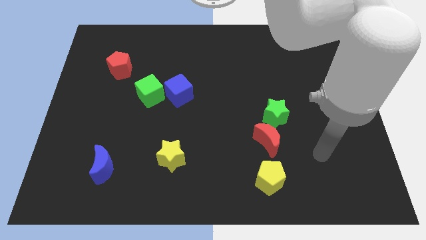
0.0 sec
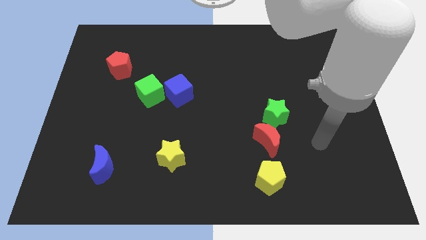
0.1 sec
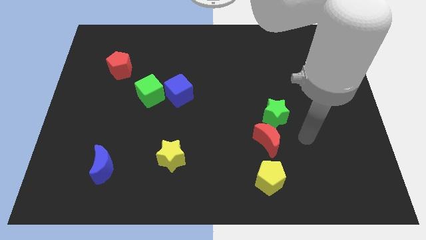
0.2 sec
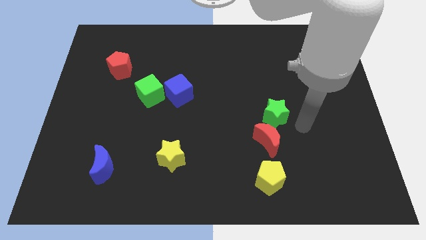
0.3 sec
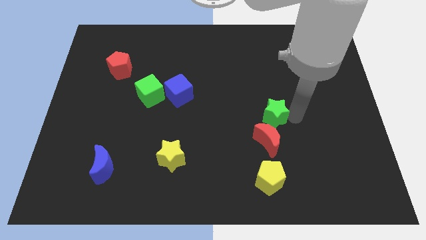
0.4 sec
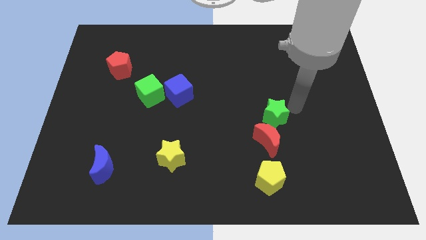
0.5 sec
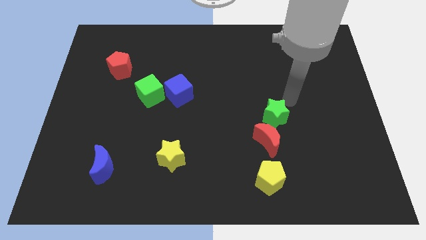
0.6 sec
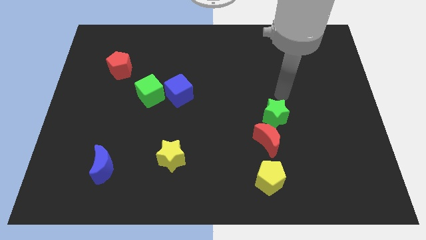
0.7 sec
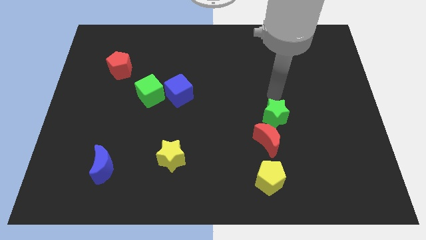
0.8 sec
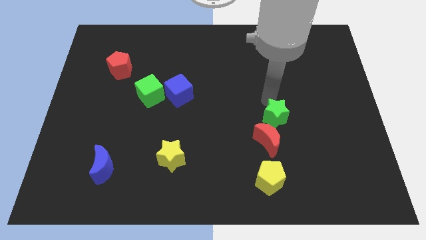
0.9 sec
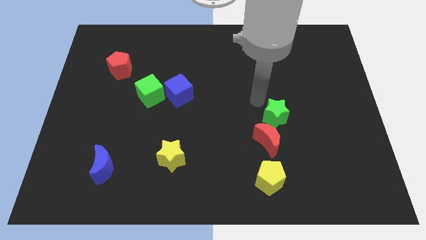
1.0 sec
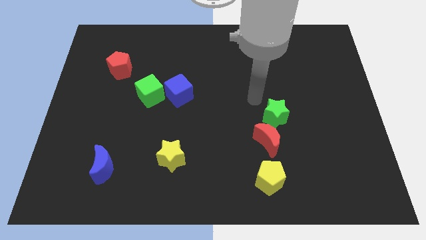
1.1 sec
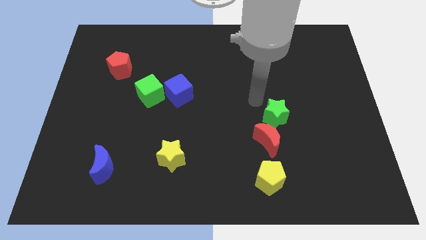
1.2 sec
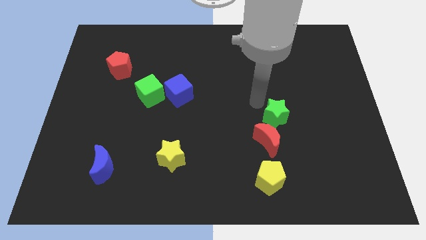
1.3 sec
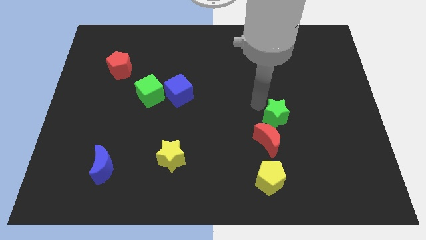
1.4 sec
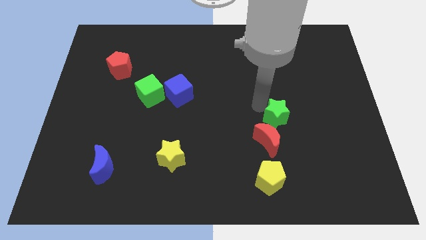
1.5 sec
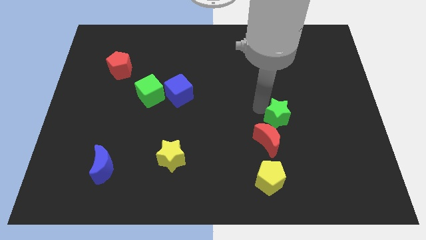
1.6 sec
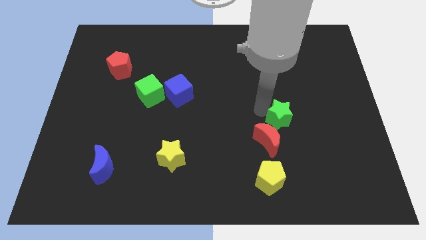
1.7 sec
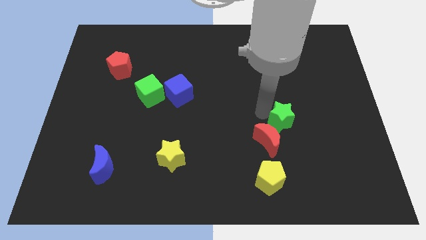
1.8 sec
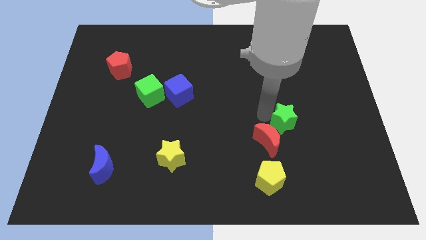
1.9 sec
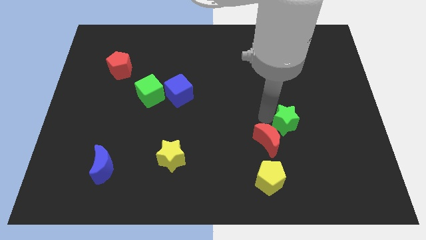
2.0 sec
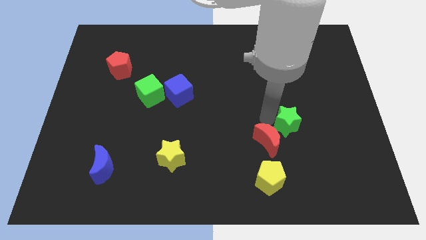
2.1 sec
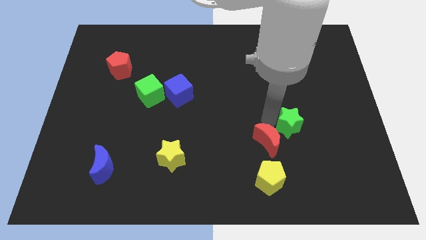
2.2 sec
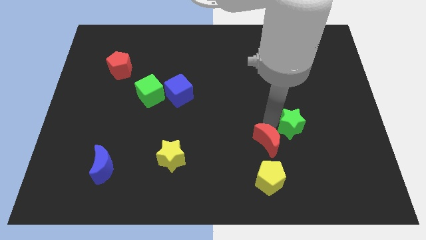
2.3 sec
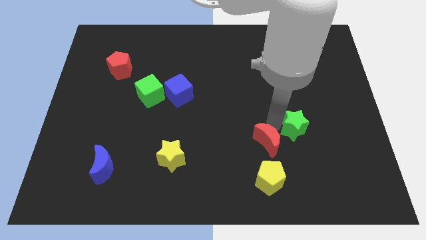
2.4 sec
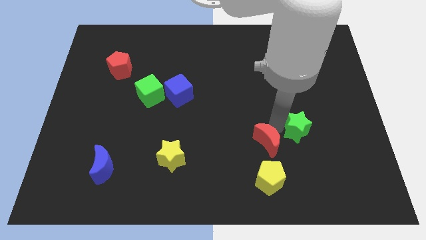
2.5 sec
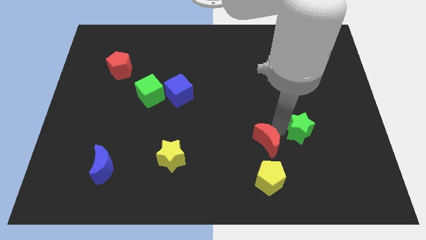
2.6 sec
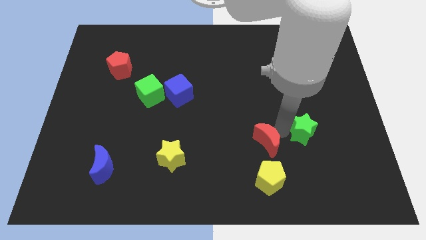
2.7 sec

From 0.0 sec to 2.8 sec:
slightly move the green star diagonally downwards and to the right

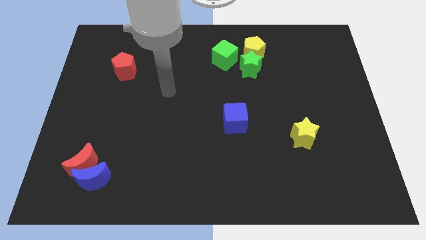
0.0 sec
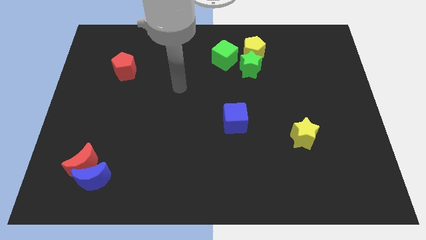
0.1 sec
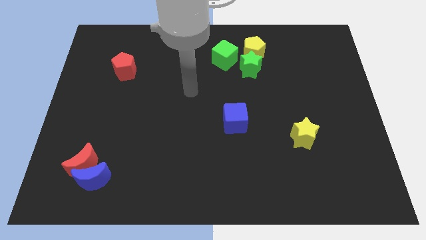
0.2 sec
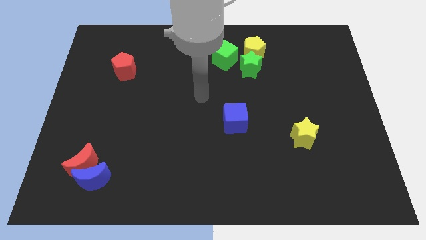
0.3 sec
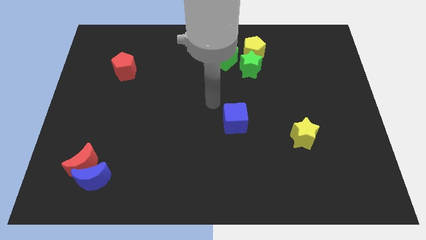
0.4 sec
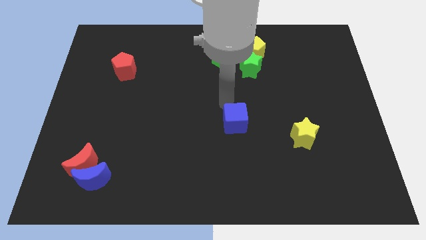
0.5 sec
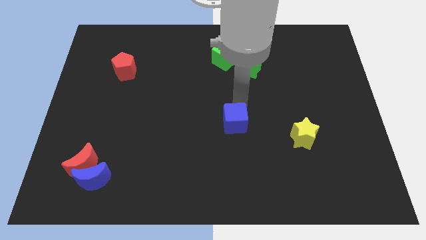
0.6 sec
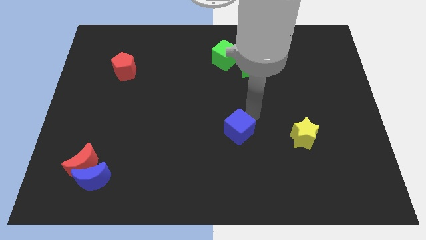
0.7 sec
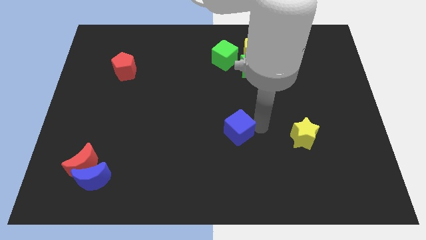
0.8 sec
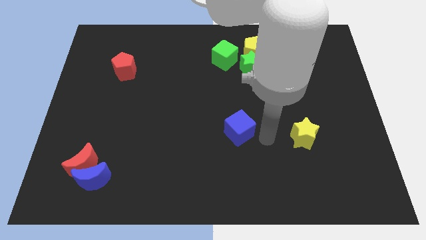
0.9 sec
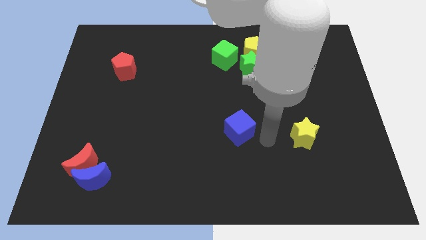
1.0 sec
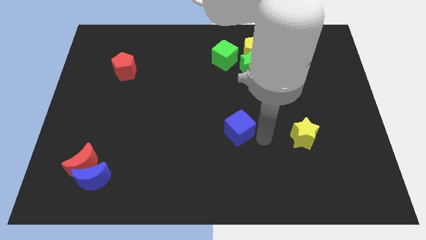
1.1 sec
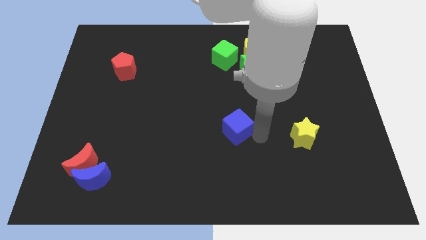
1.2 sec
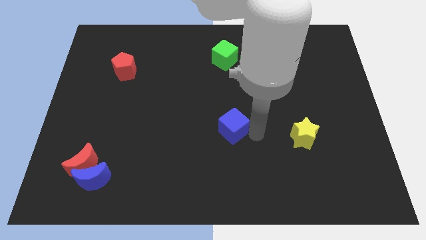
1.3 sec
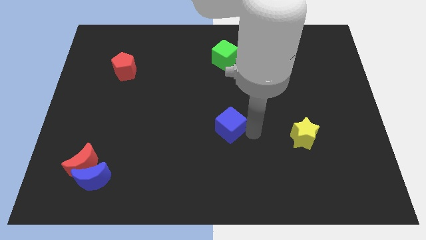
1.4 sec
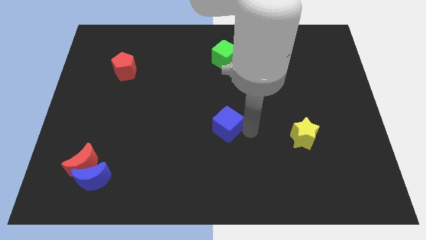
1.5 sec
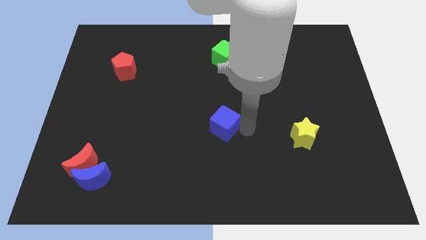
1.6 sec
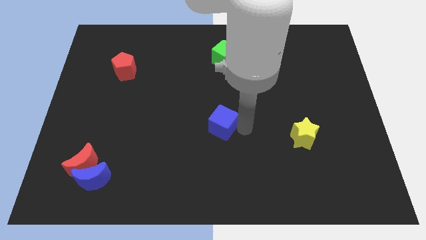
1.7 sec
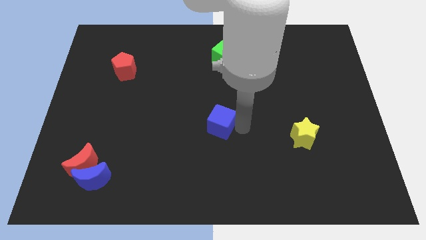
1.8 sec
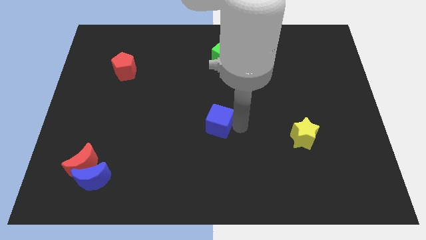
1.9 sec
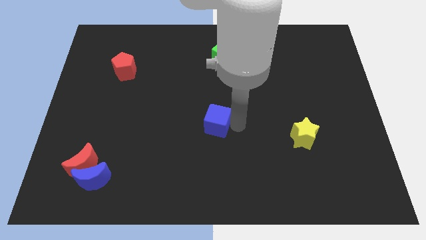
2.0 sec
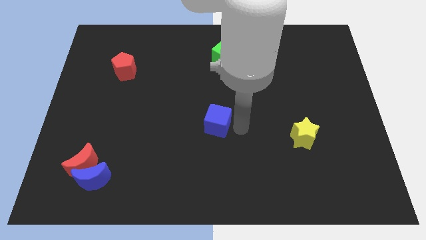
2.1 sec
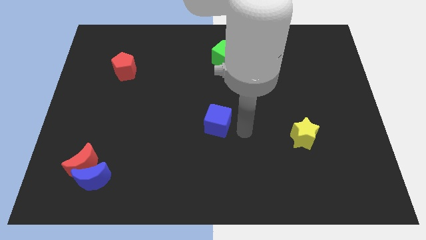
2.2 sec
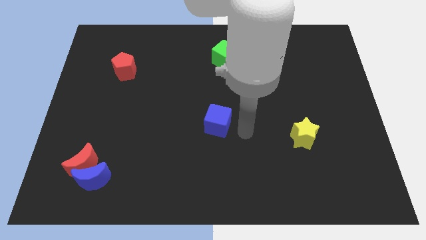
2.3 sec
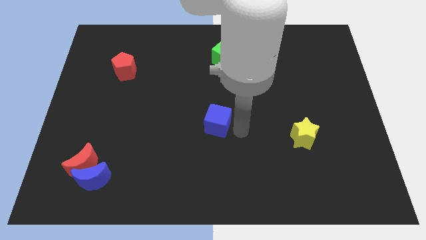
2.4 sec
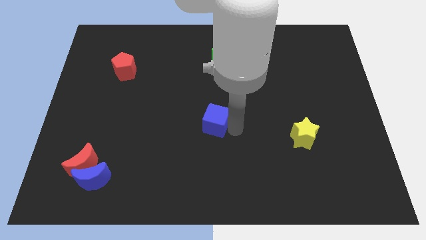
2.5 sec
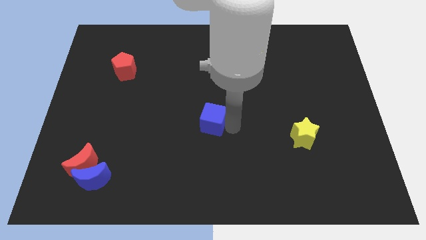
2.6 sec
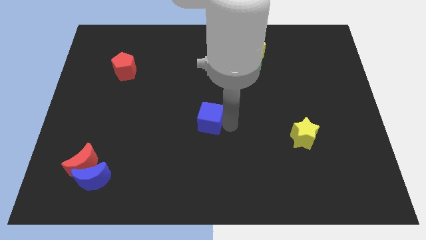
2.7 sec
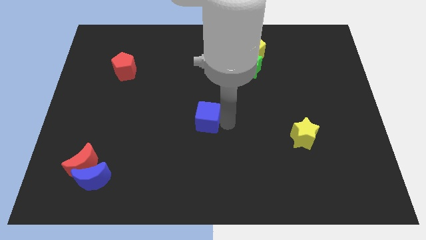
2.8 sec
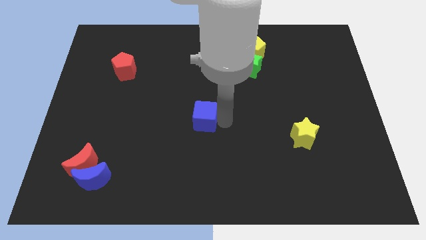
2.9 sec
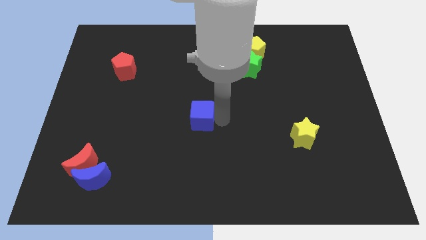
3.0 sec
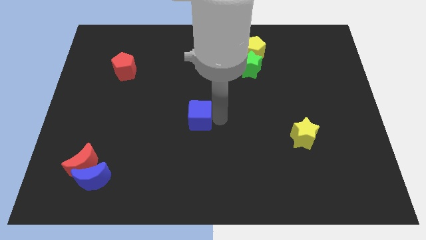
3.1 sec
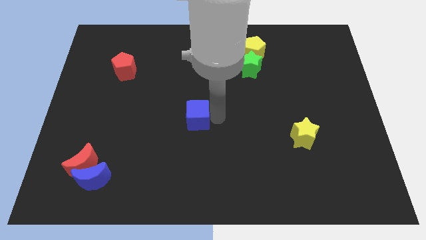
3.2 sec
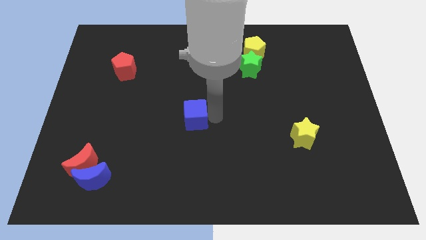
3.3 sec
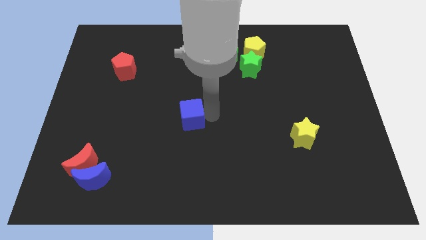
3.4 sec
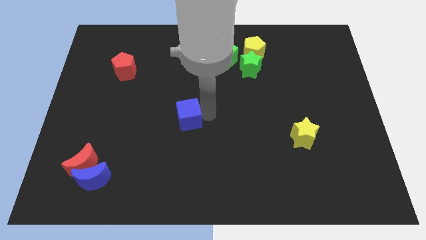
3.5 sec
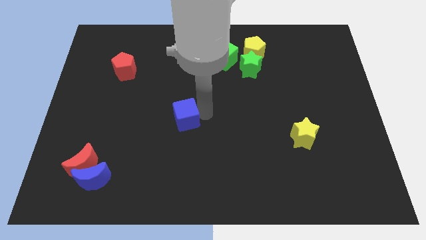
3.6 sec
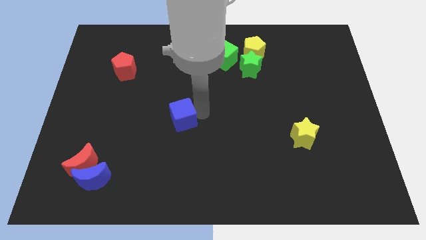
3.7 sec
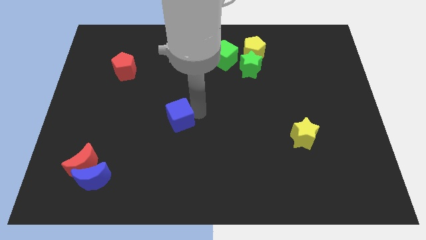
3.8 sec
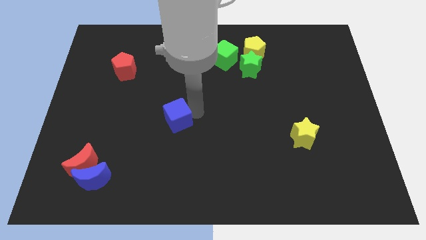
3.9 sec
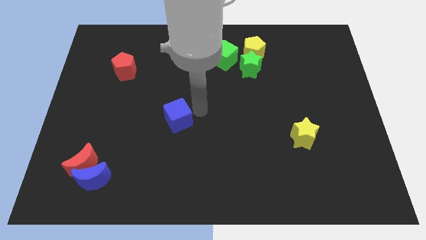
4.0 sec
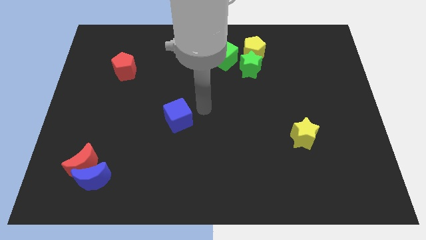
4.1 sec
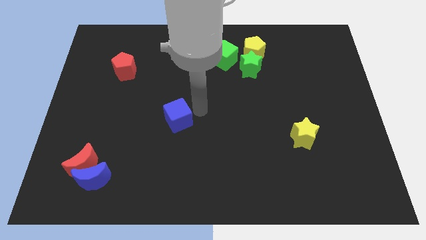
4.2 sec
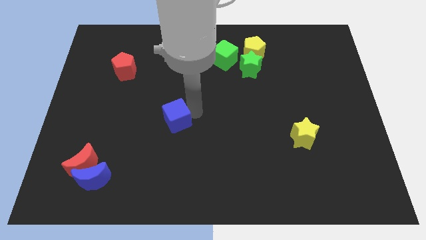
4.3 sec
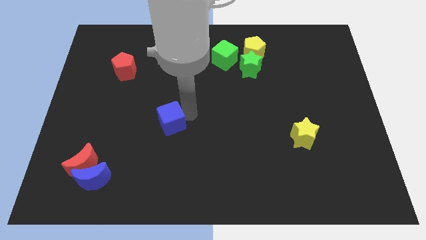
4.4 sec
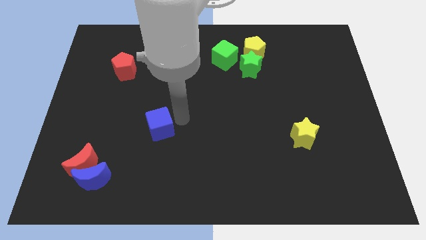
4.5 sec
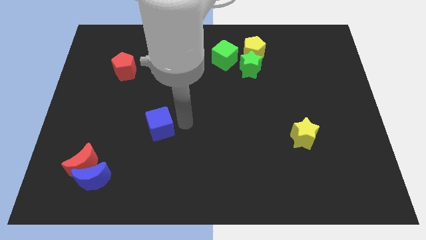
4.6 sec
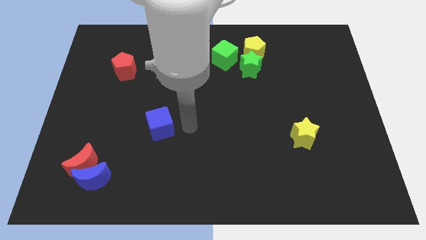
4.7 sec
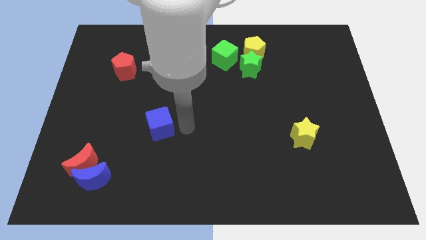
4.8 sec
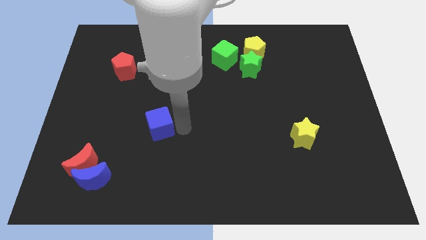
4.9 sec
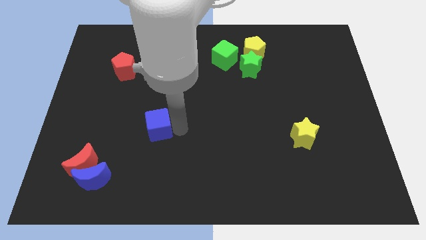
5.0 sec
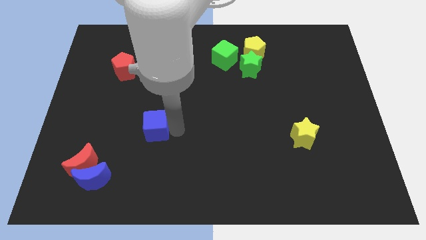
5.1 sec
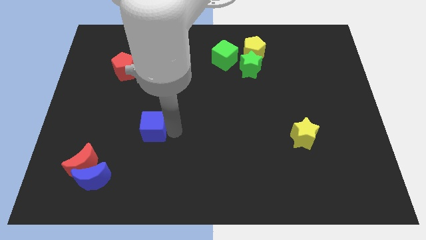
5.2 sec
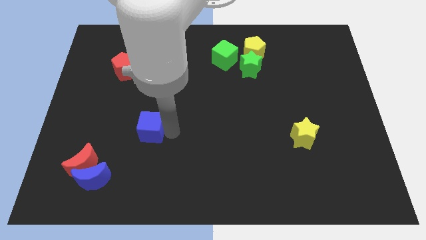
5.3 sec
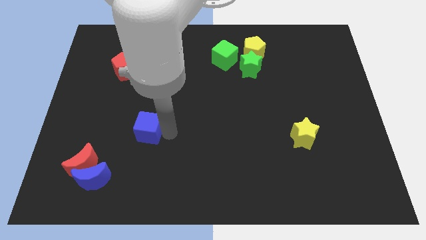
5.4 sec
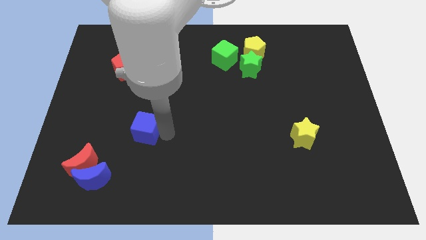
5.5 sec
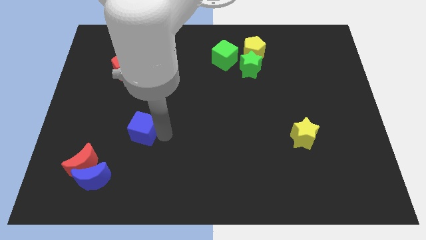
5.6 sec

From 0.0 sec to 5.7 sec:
push the blue cube to the left
